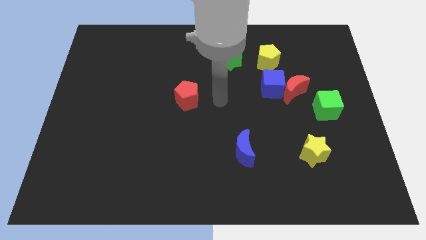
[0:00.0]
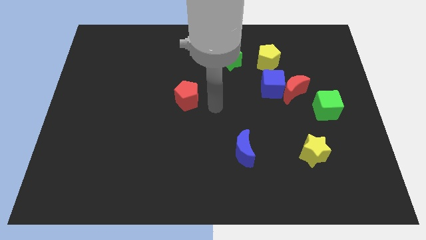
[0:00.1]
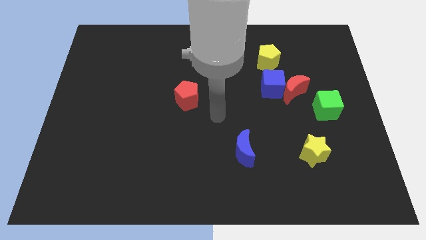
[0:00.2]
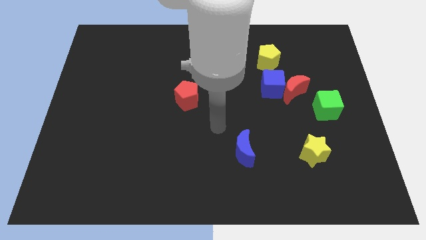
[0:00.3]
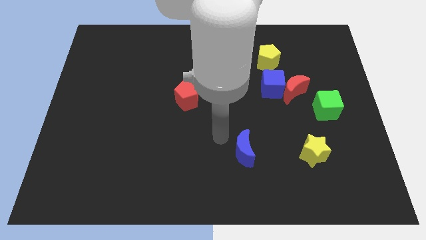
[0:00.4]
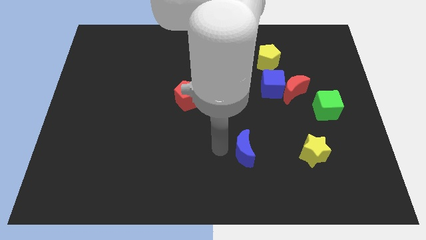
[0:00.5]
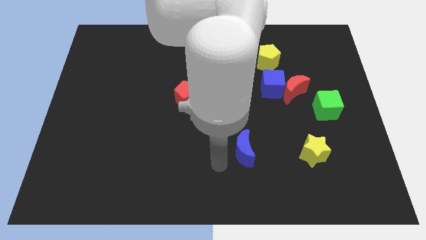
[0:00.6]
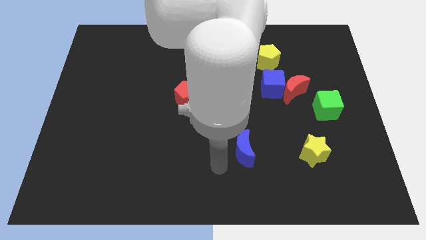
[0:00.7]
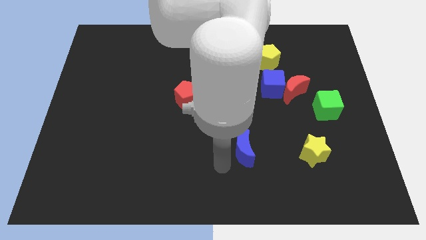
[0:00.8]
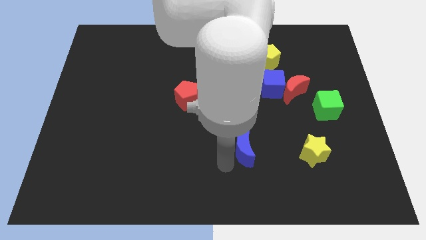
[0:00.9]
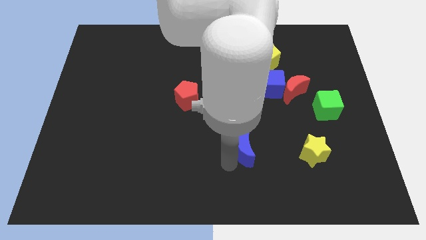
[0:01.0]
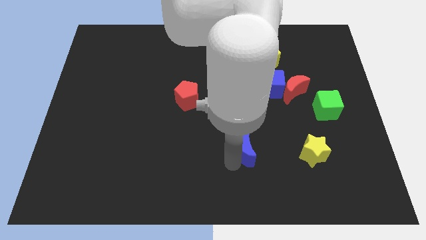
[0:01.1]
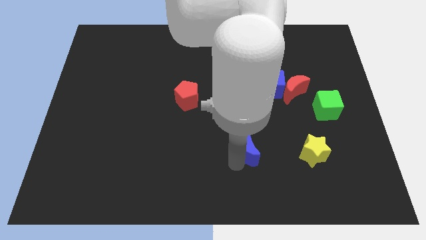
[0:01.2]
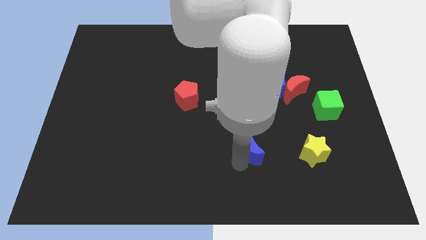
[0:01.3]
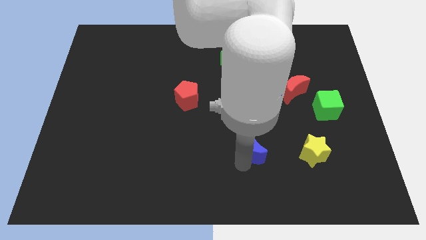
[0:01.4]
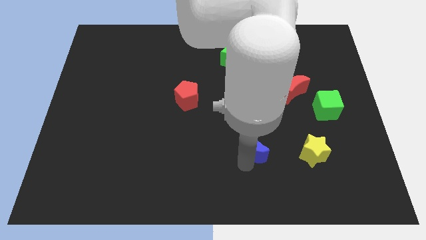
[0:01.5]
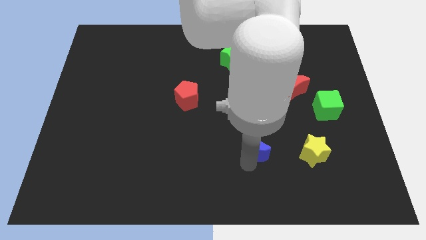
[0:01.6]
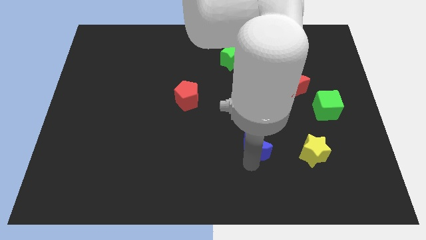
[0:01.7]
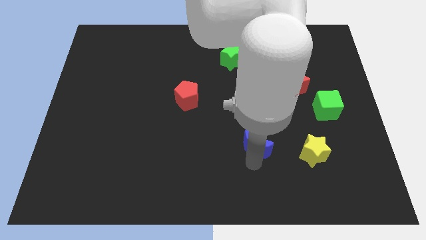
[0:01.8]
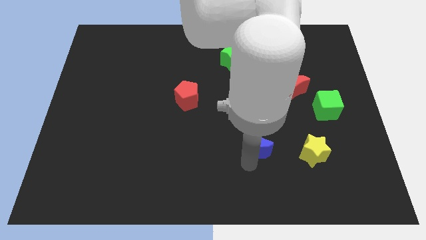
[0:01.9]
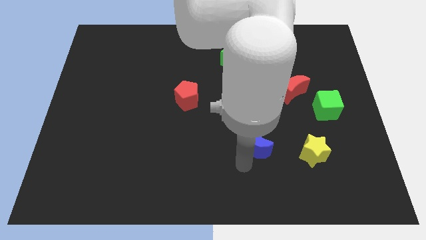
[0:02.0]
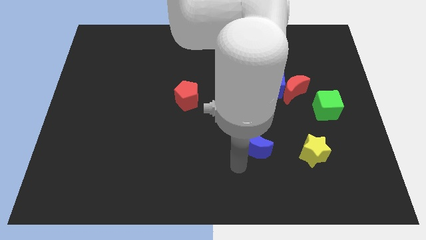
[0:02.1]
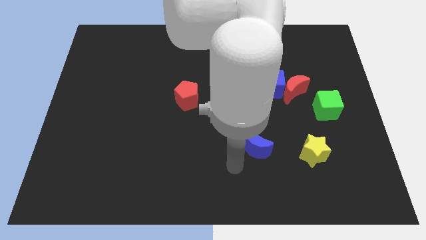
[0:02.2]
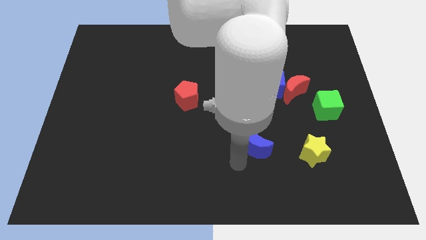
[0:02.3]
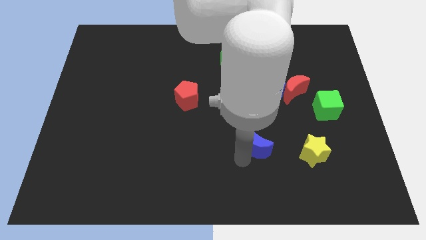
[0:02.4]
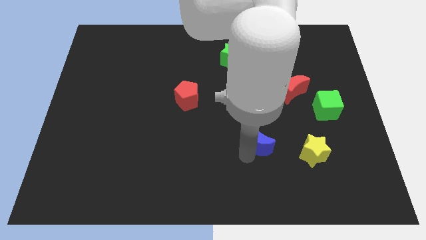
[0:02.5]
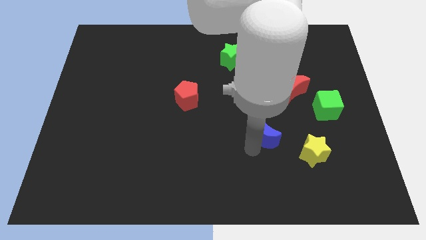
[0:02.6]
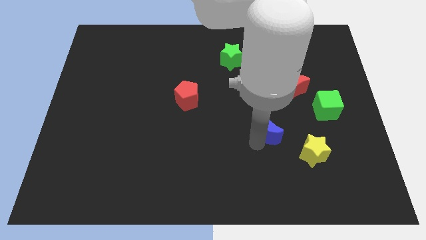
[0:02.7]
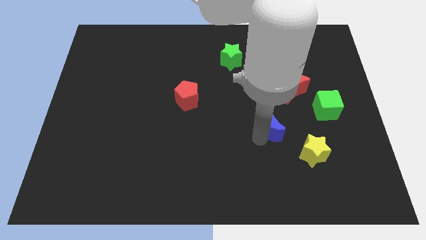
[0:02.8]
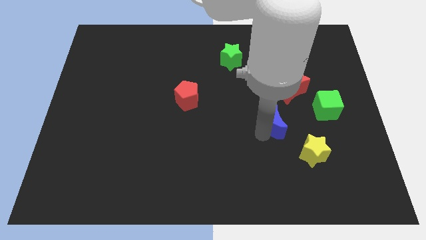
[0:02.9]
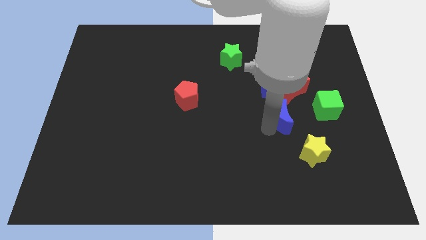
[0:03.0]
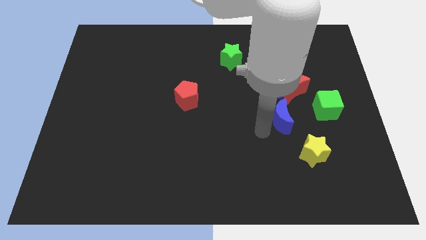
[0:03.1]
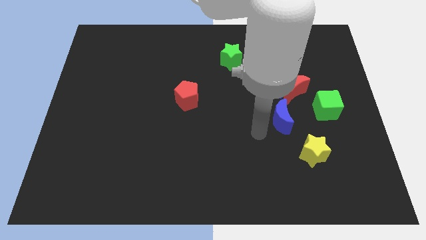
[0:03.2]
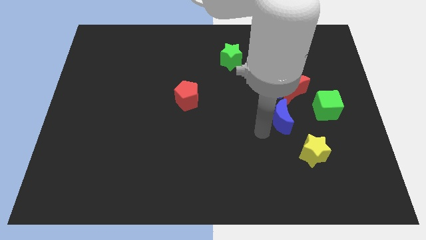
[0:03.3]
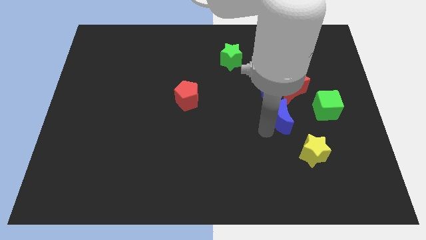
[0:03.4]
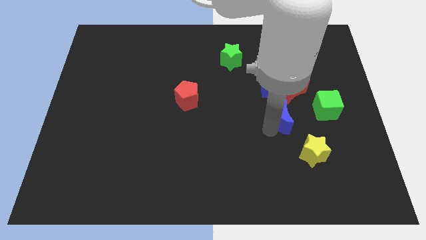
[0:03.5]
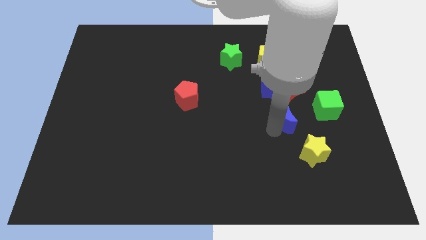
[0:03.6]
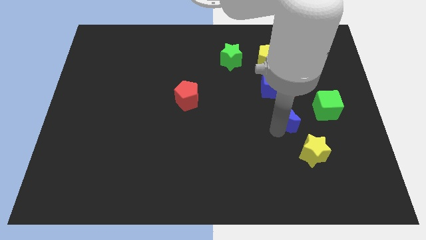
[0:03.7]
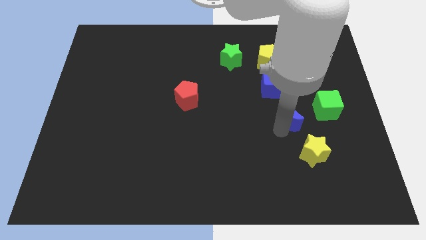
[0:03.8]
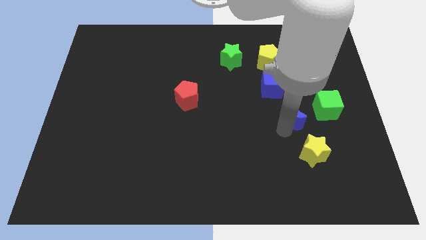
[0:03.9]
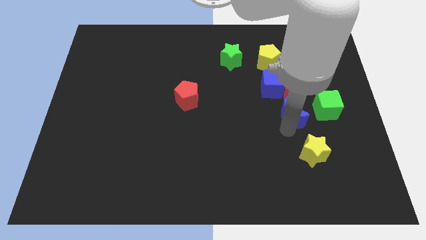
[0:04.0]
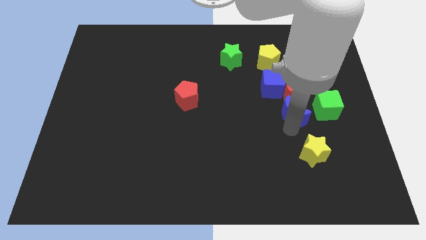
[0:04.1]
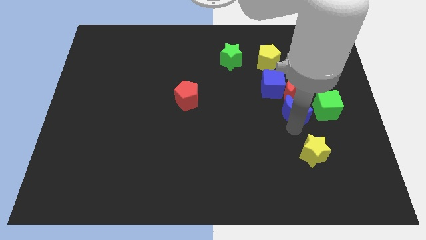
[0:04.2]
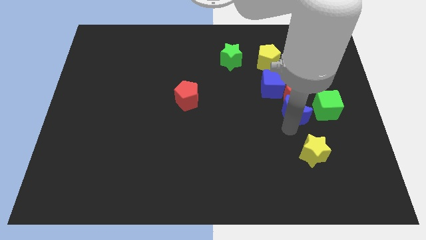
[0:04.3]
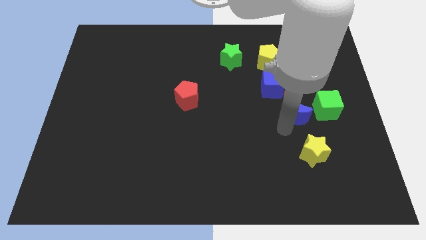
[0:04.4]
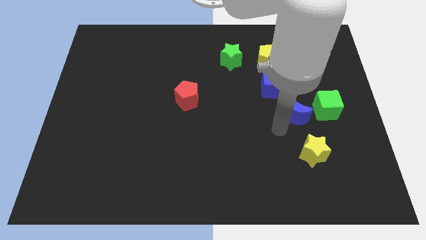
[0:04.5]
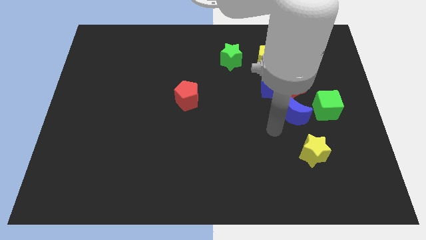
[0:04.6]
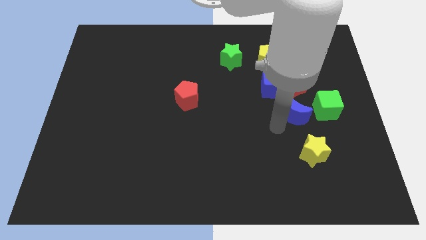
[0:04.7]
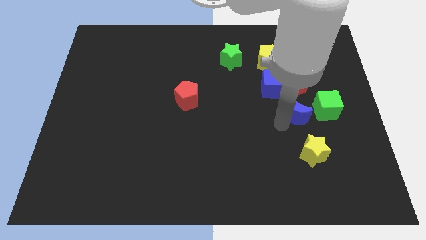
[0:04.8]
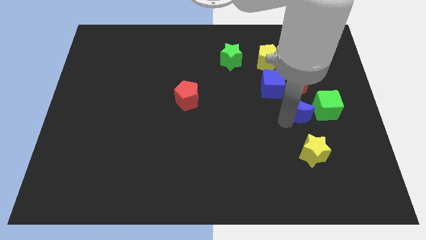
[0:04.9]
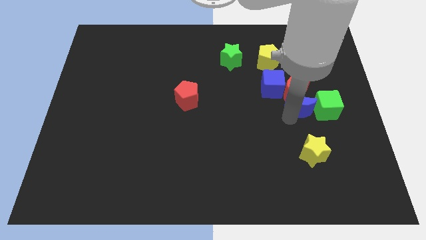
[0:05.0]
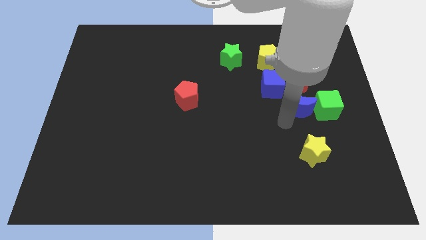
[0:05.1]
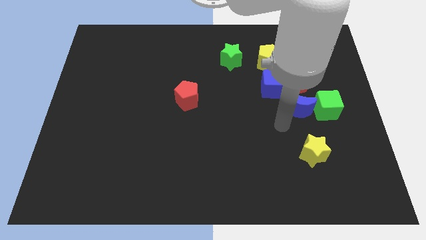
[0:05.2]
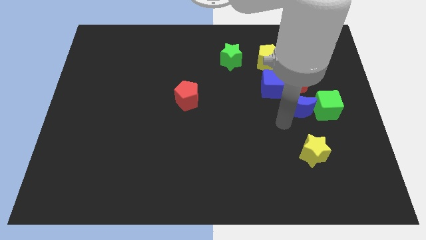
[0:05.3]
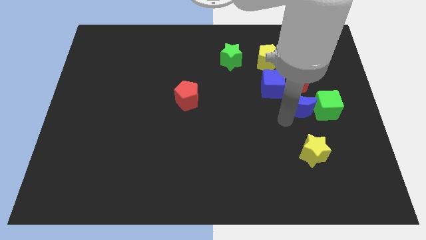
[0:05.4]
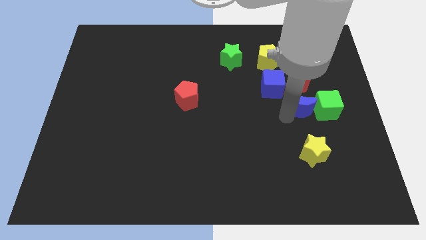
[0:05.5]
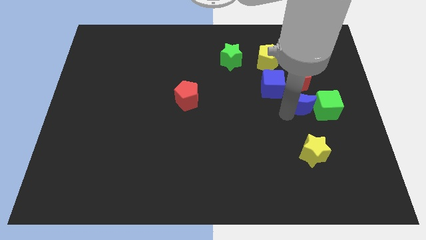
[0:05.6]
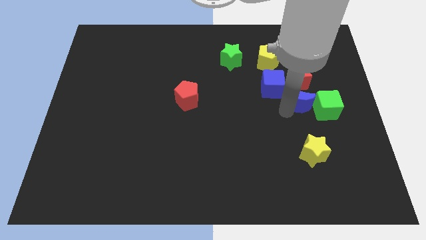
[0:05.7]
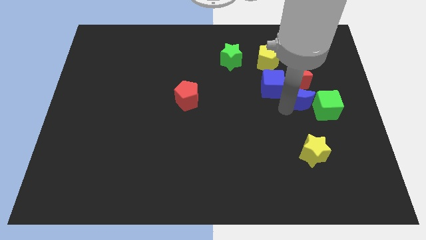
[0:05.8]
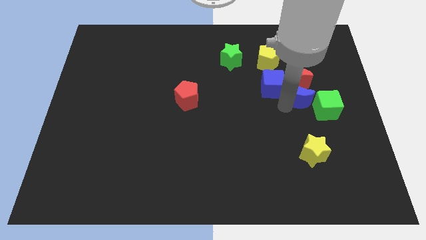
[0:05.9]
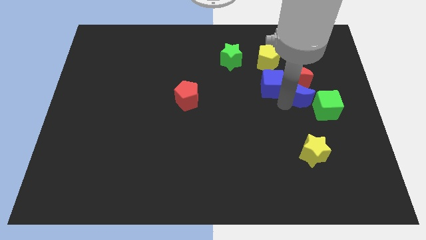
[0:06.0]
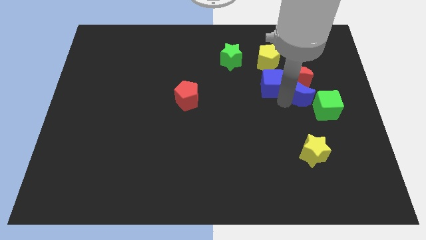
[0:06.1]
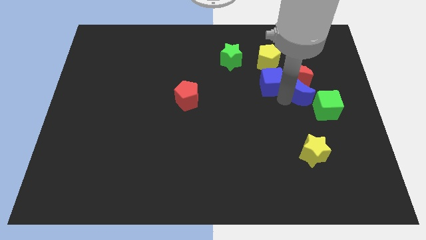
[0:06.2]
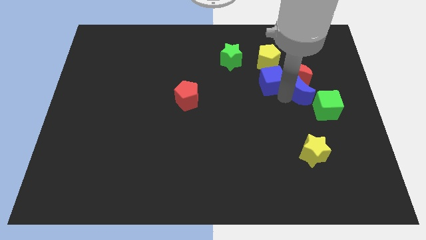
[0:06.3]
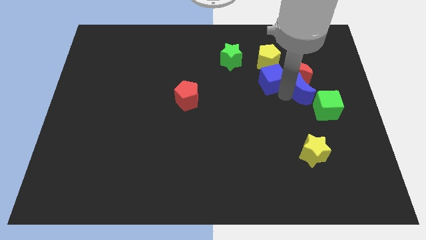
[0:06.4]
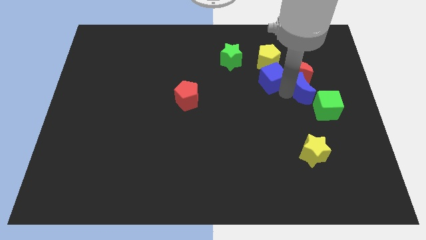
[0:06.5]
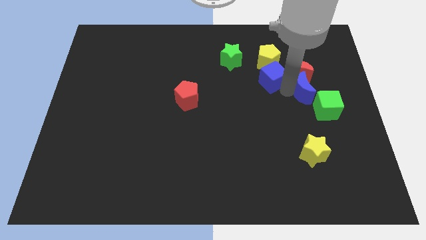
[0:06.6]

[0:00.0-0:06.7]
slide the blue moon to the top of the green cube
